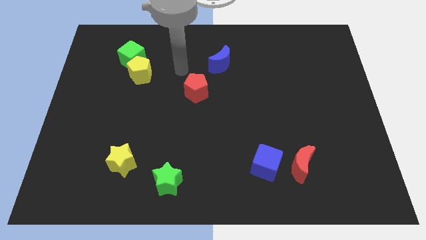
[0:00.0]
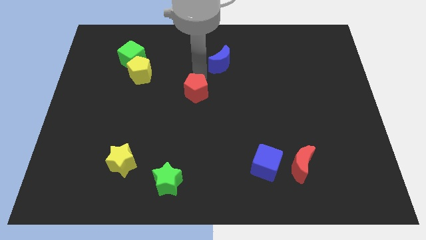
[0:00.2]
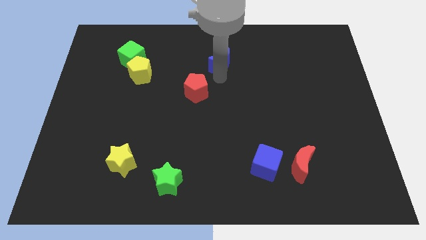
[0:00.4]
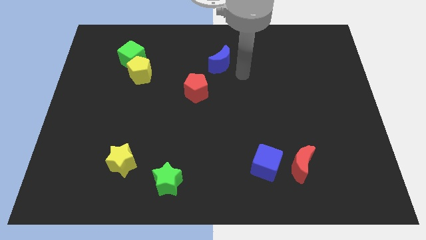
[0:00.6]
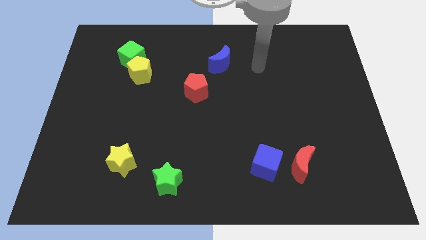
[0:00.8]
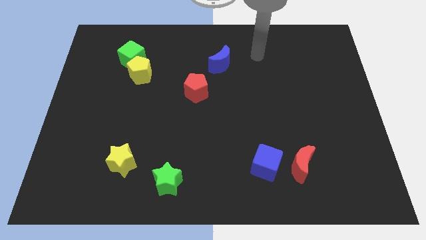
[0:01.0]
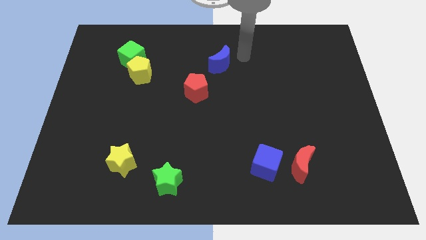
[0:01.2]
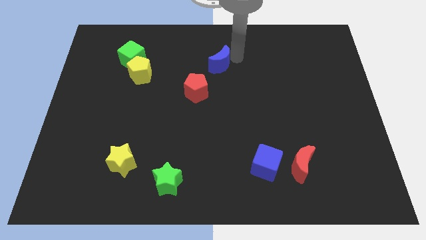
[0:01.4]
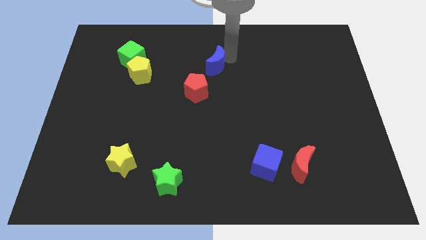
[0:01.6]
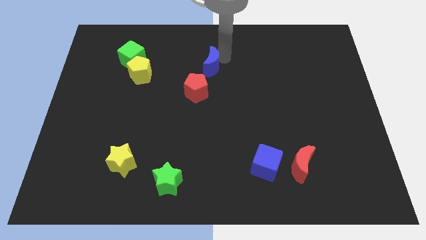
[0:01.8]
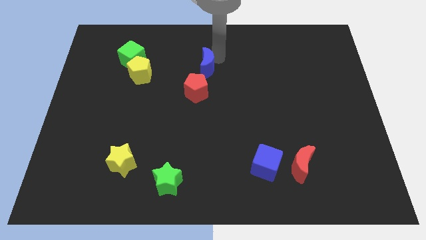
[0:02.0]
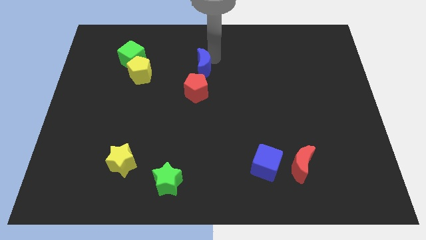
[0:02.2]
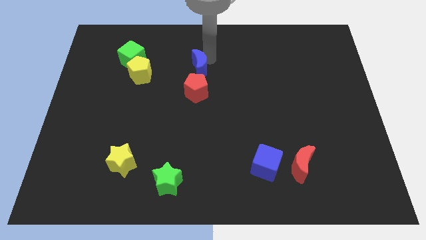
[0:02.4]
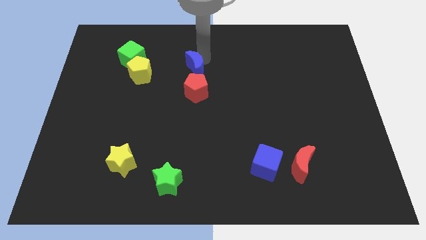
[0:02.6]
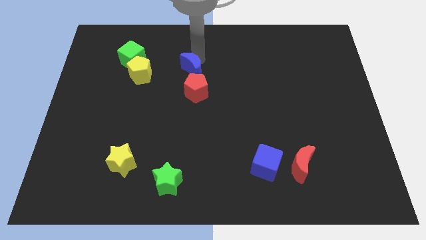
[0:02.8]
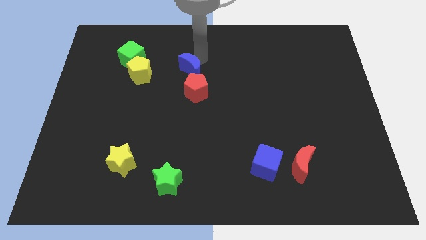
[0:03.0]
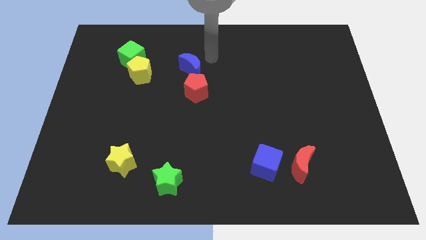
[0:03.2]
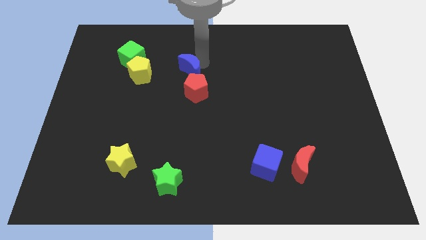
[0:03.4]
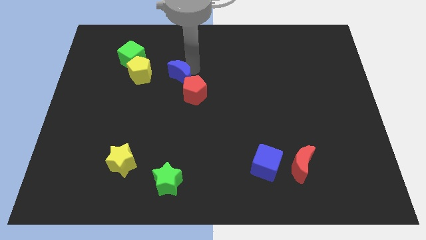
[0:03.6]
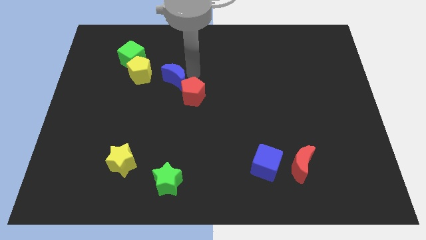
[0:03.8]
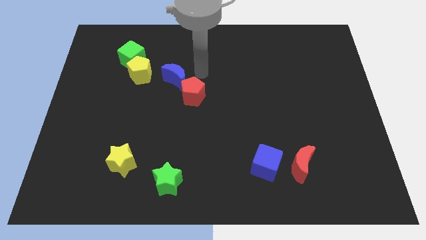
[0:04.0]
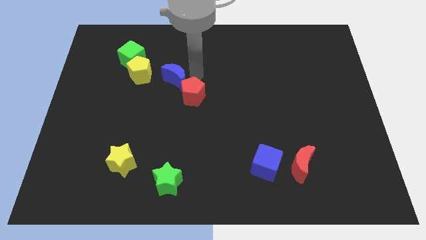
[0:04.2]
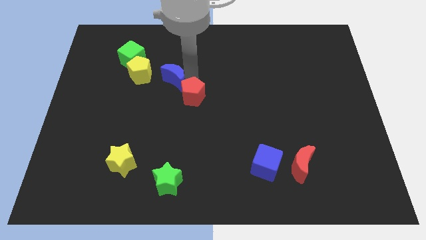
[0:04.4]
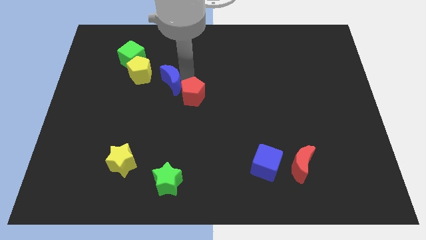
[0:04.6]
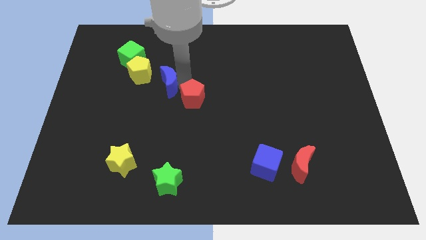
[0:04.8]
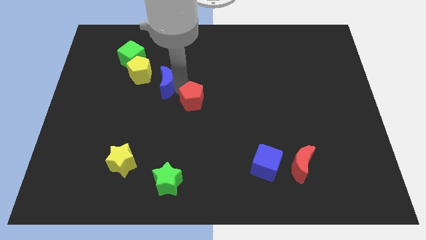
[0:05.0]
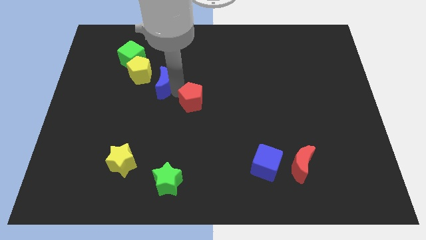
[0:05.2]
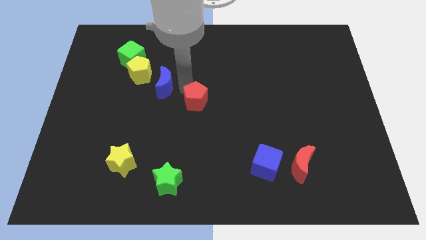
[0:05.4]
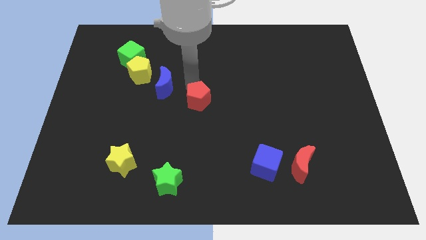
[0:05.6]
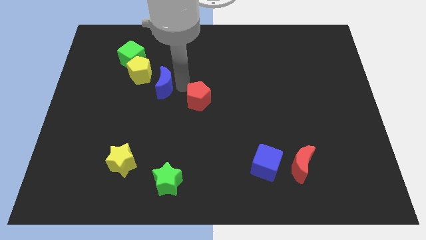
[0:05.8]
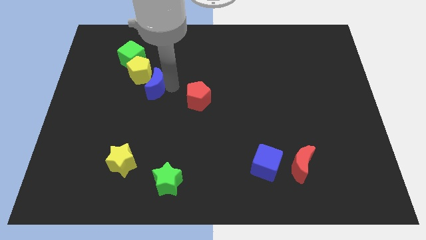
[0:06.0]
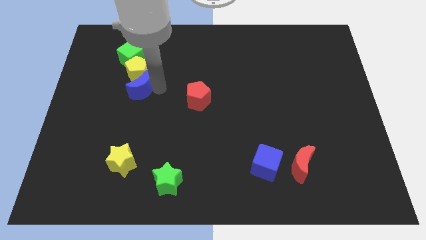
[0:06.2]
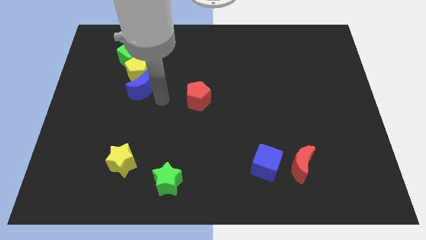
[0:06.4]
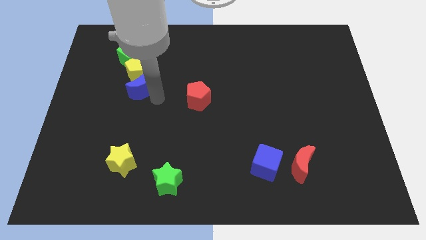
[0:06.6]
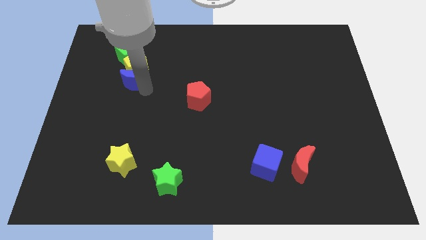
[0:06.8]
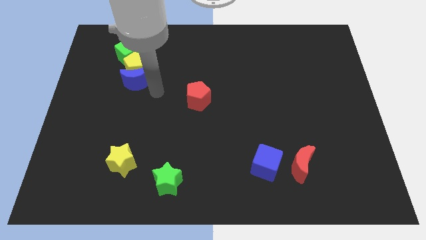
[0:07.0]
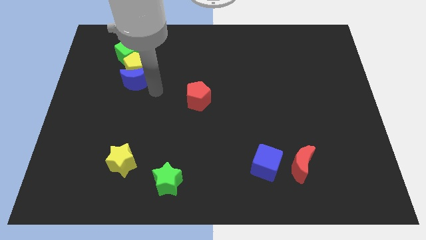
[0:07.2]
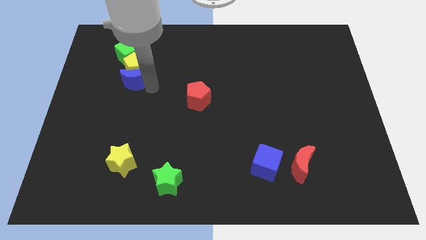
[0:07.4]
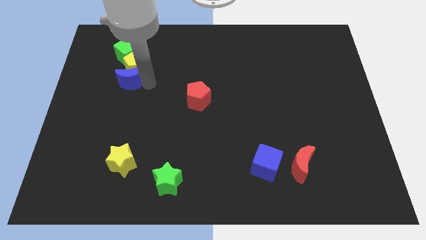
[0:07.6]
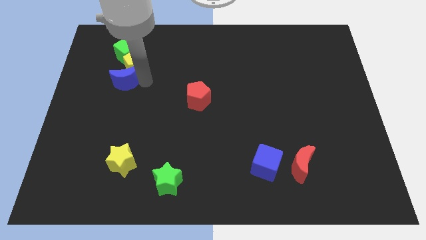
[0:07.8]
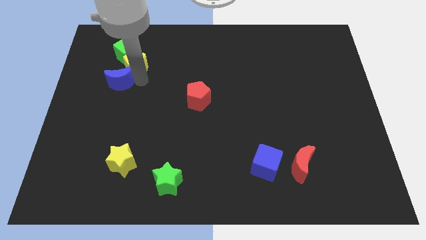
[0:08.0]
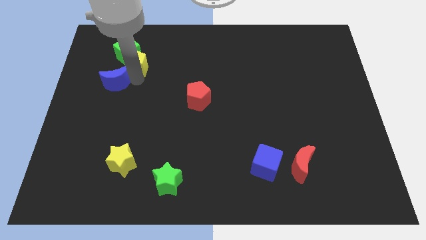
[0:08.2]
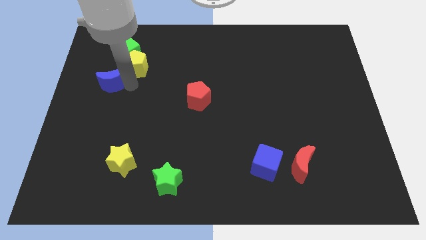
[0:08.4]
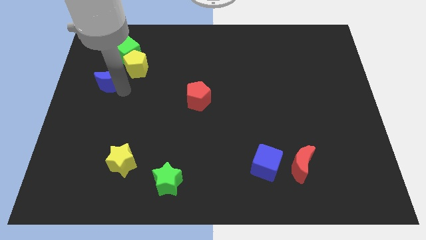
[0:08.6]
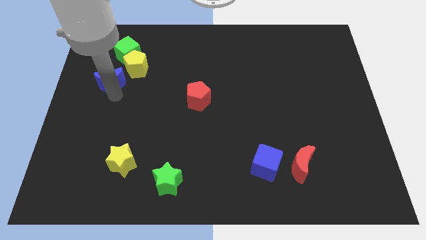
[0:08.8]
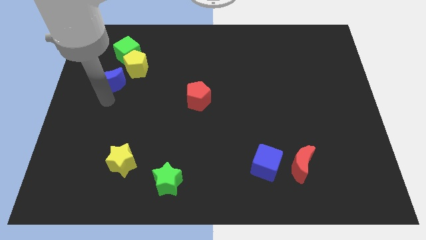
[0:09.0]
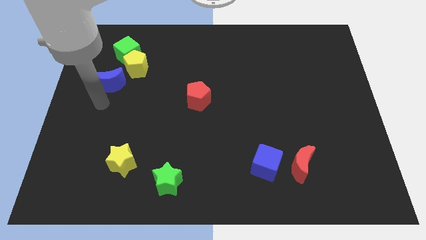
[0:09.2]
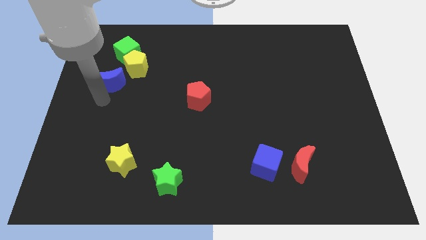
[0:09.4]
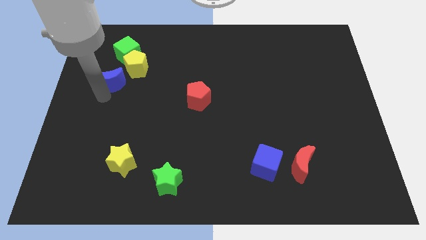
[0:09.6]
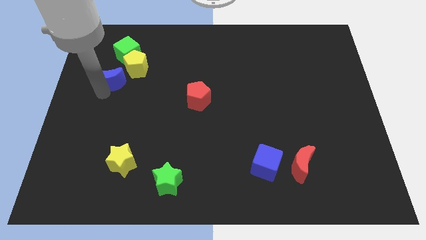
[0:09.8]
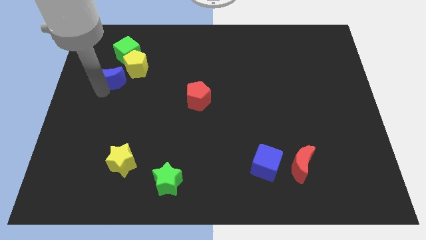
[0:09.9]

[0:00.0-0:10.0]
put the blue moon to the left of the yellow pentagon

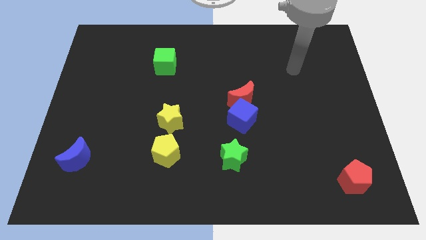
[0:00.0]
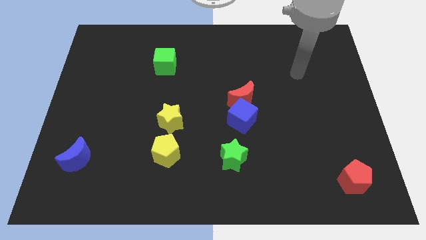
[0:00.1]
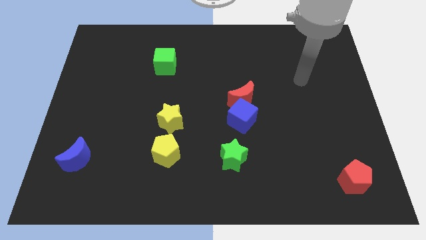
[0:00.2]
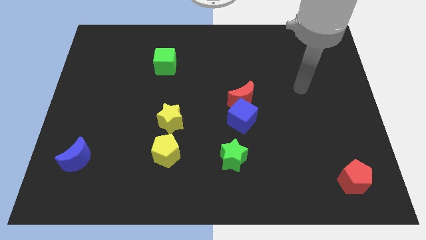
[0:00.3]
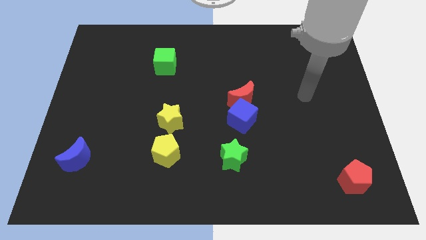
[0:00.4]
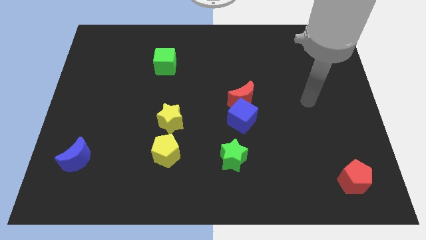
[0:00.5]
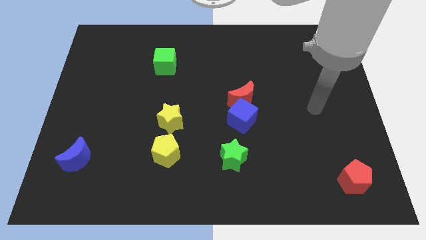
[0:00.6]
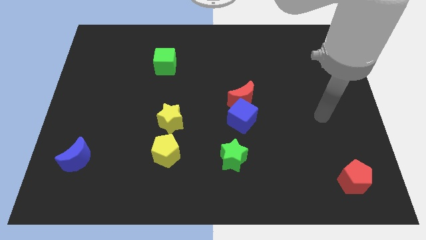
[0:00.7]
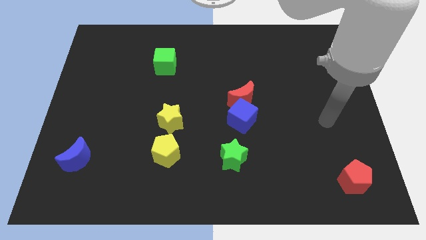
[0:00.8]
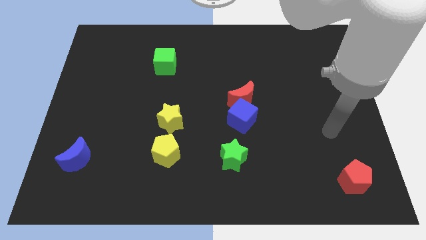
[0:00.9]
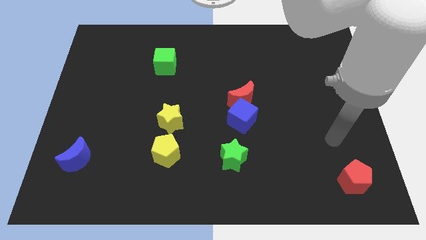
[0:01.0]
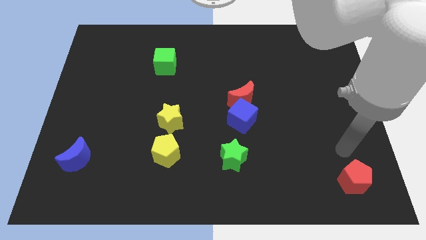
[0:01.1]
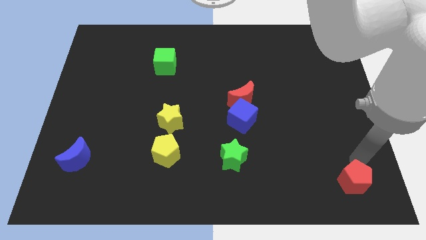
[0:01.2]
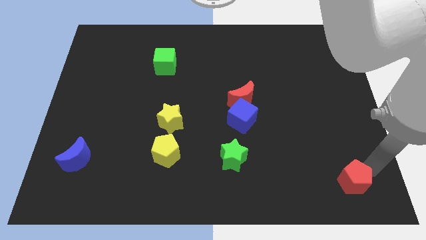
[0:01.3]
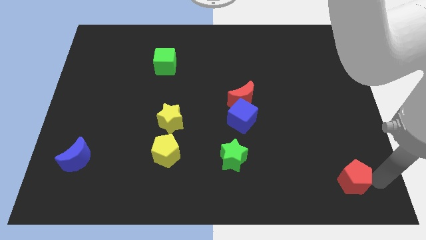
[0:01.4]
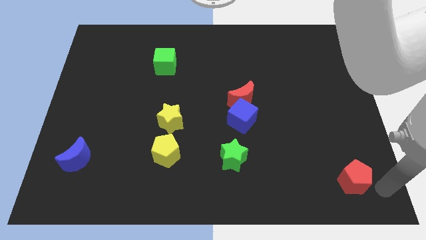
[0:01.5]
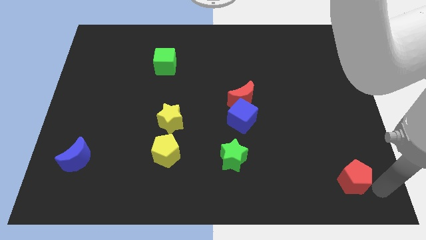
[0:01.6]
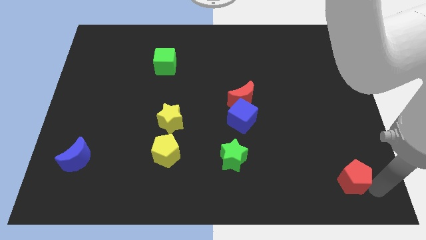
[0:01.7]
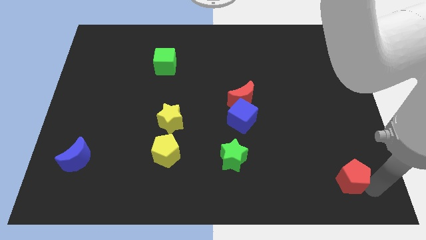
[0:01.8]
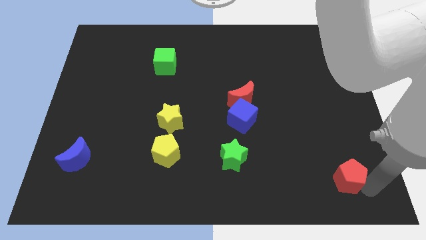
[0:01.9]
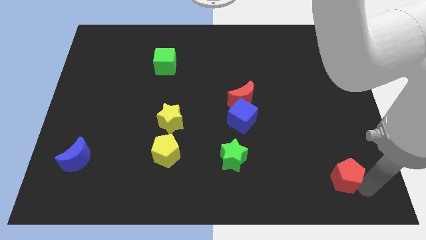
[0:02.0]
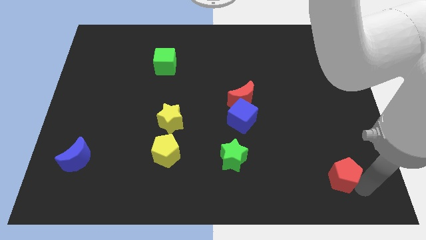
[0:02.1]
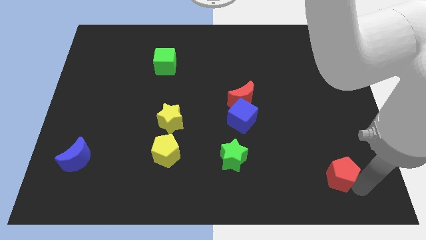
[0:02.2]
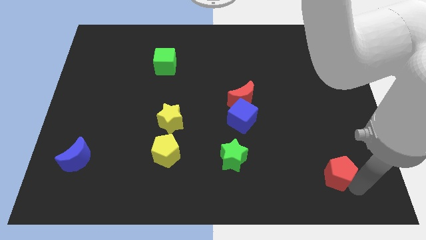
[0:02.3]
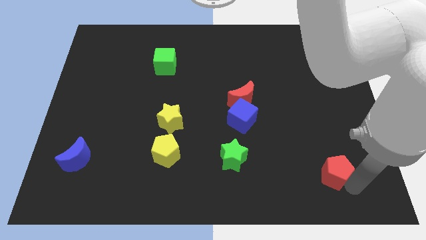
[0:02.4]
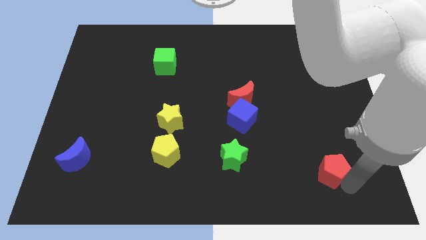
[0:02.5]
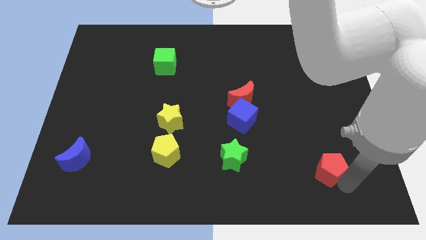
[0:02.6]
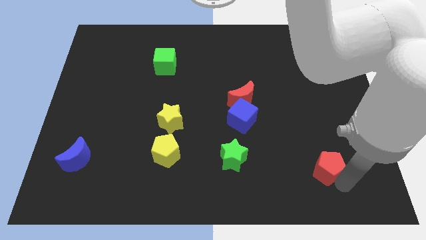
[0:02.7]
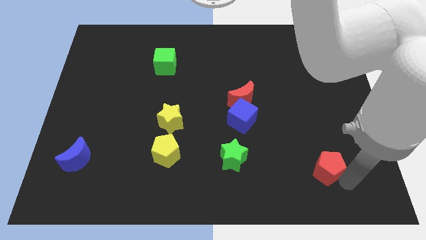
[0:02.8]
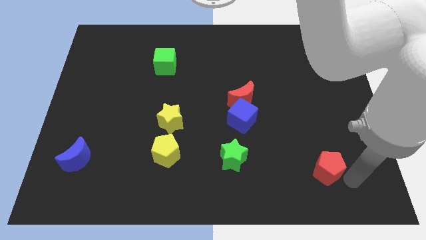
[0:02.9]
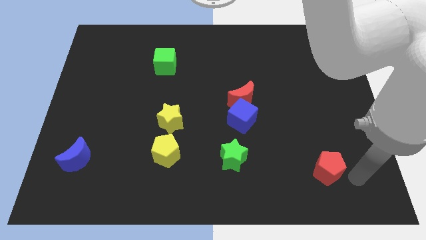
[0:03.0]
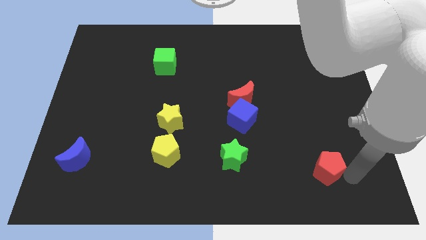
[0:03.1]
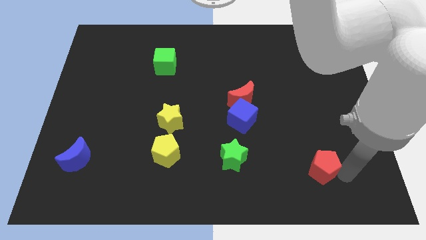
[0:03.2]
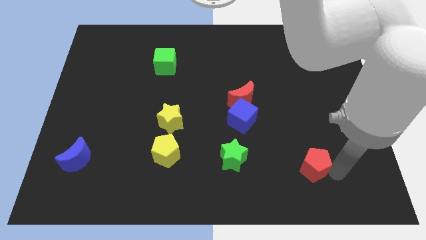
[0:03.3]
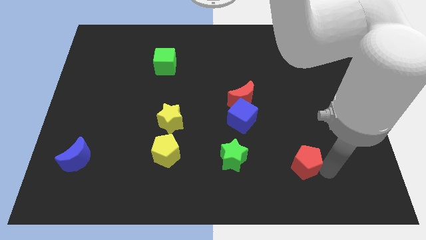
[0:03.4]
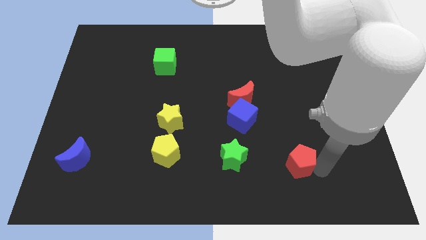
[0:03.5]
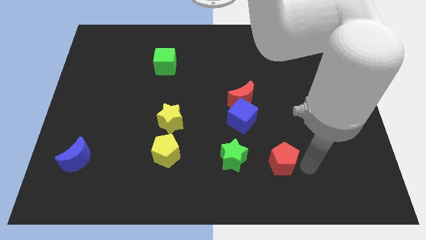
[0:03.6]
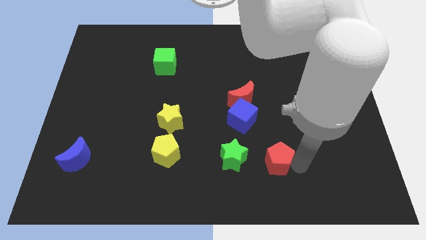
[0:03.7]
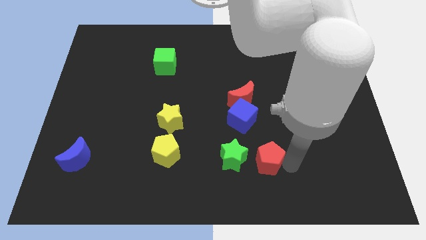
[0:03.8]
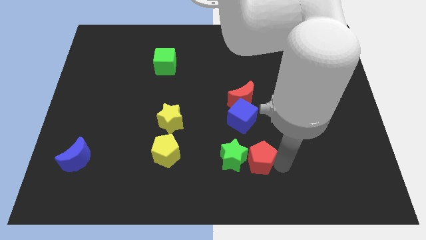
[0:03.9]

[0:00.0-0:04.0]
push the red pentagon diagonally up and to the right of the green star
